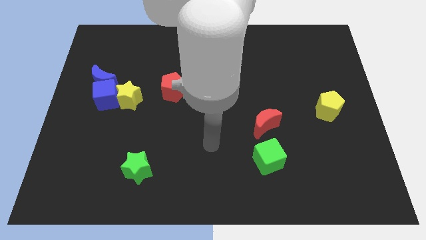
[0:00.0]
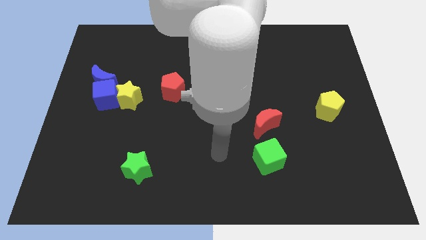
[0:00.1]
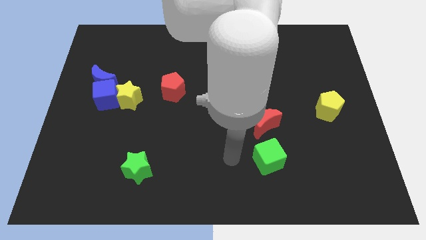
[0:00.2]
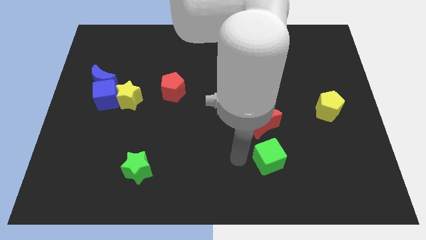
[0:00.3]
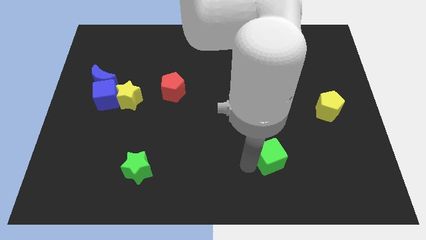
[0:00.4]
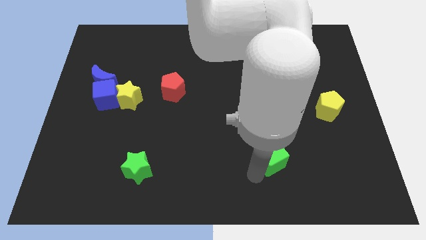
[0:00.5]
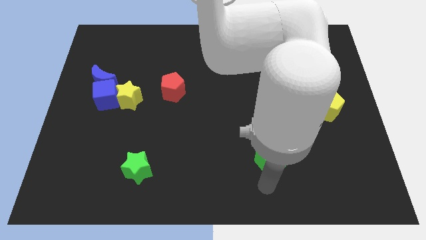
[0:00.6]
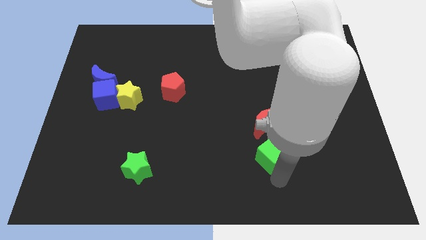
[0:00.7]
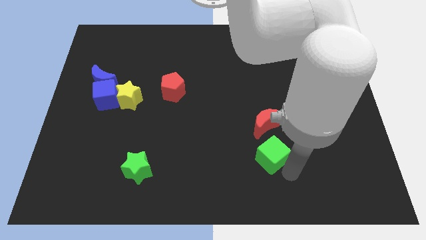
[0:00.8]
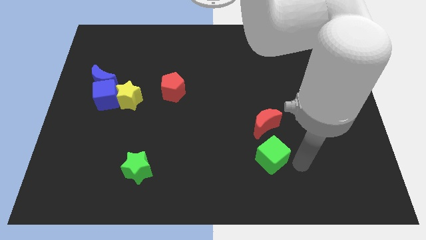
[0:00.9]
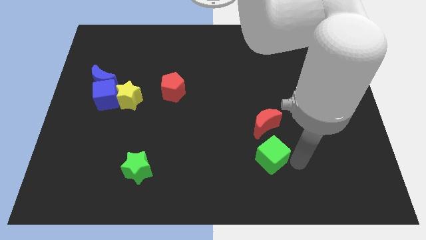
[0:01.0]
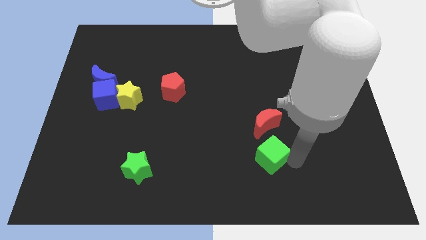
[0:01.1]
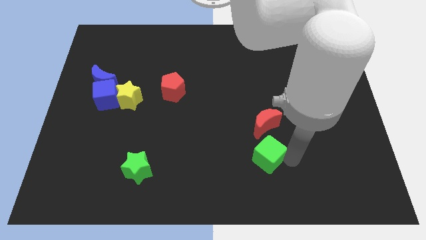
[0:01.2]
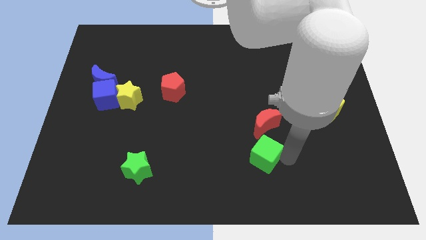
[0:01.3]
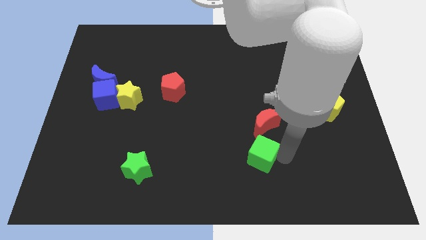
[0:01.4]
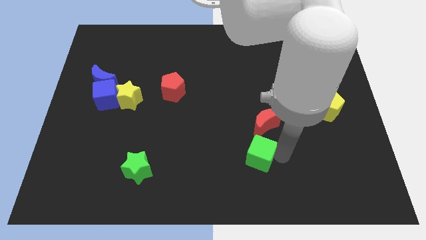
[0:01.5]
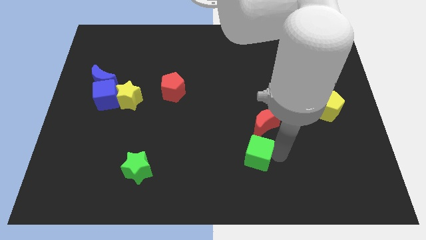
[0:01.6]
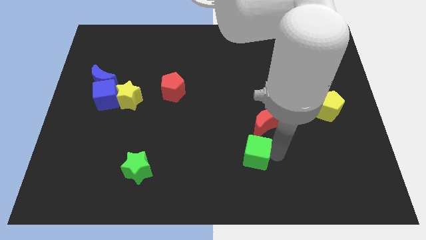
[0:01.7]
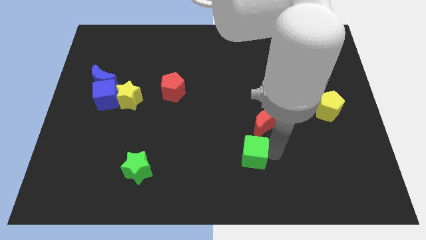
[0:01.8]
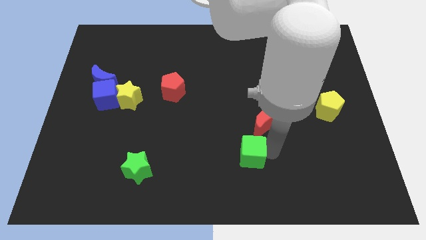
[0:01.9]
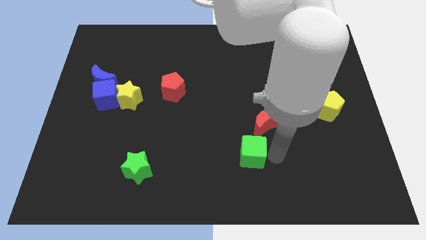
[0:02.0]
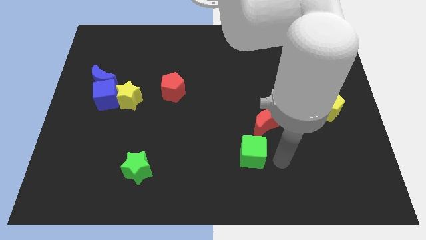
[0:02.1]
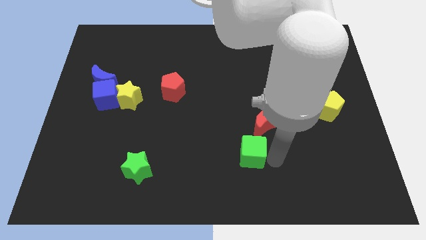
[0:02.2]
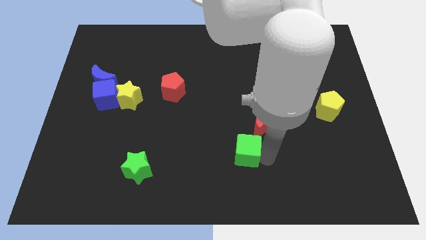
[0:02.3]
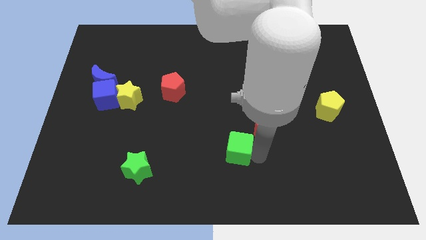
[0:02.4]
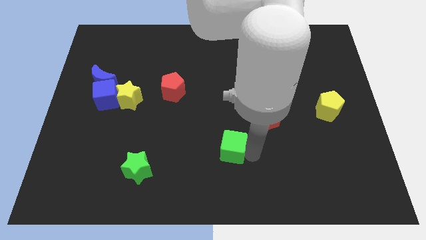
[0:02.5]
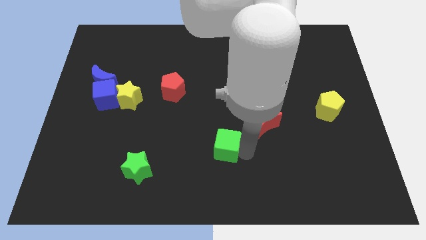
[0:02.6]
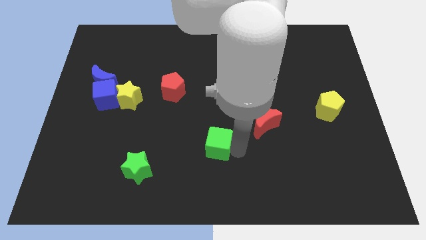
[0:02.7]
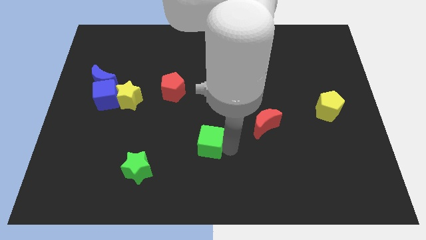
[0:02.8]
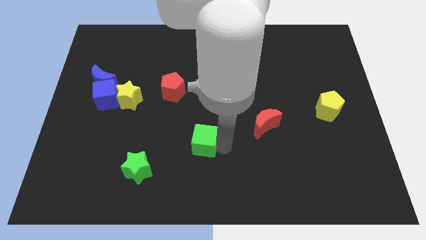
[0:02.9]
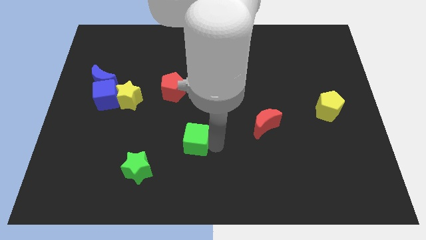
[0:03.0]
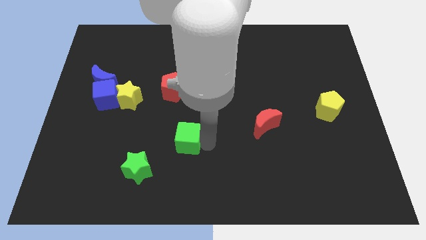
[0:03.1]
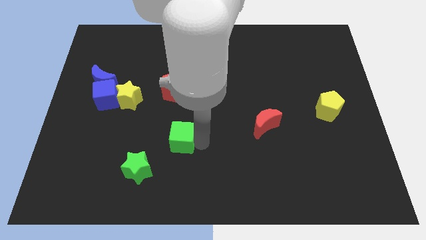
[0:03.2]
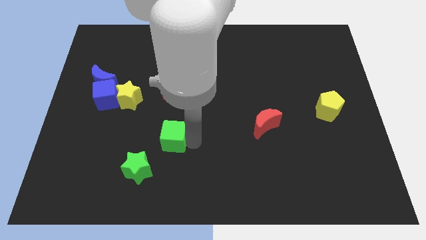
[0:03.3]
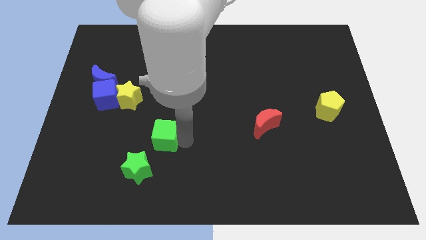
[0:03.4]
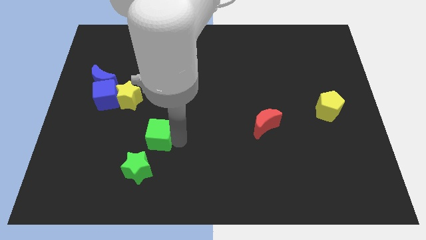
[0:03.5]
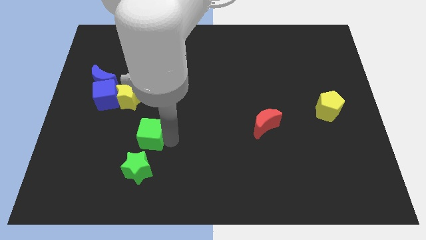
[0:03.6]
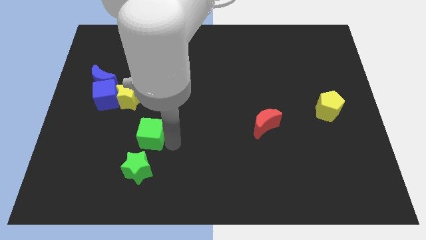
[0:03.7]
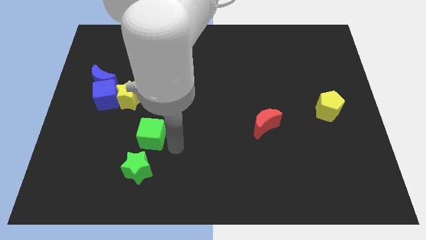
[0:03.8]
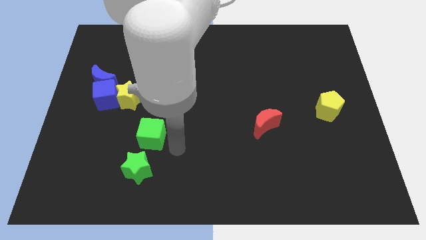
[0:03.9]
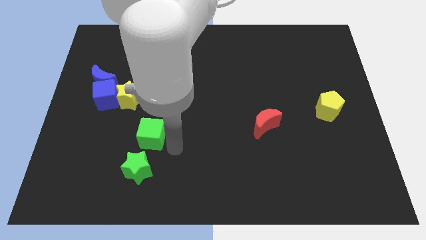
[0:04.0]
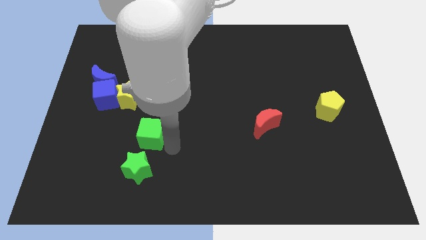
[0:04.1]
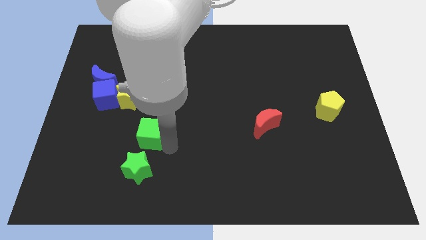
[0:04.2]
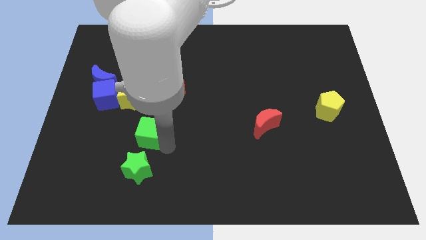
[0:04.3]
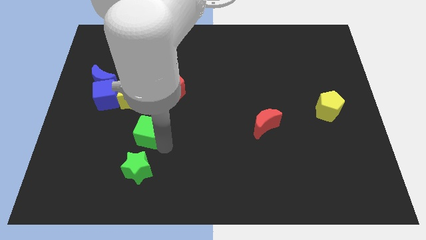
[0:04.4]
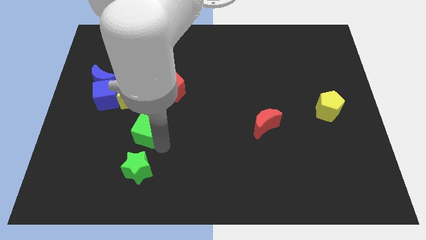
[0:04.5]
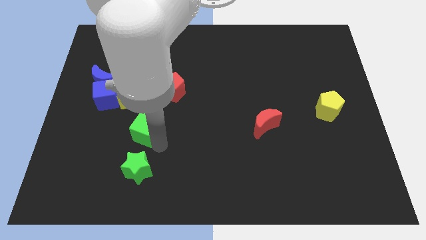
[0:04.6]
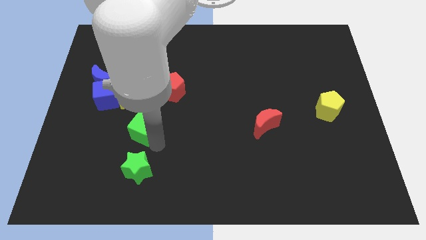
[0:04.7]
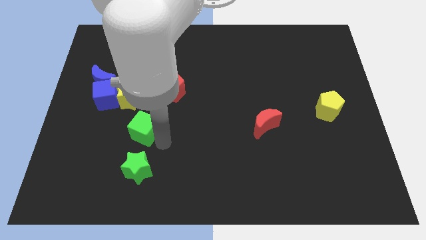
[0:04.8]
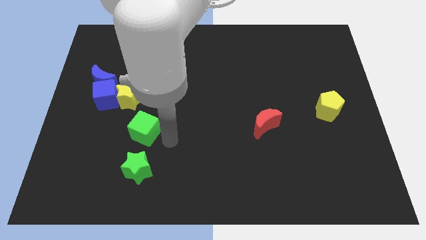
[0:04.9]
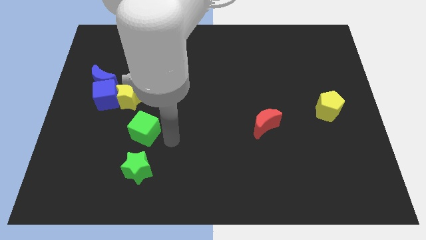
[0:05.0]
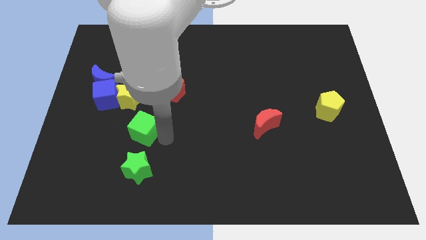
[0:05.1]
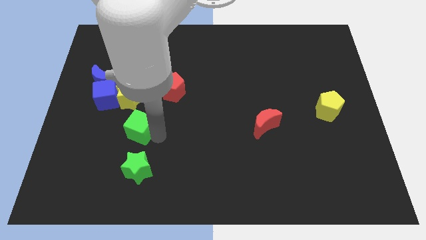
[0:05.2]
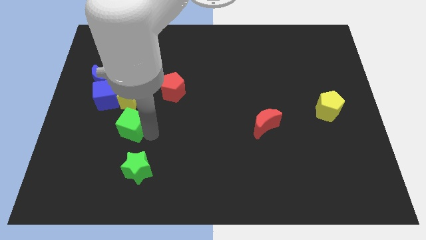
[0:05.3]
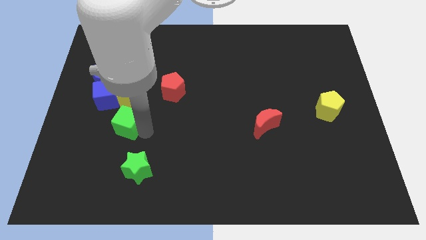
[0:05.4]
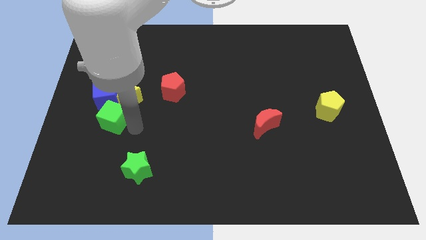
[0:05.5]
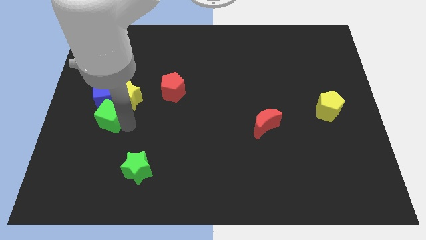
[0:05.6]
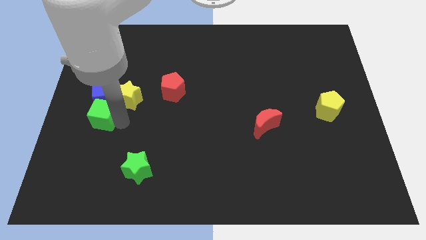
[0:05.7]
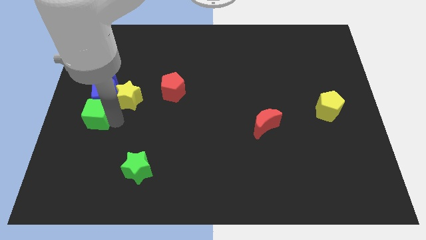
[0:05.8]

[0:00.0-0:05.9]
slide the green cube to the center left
